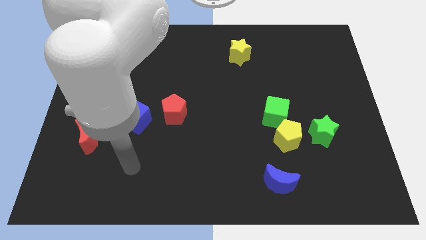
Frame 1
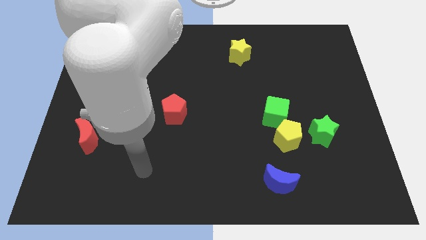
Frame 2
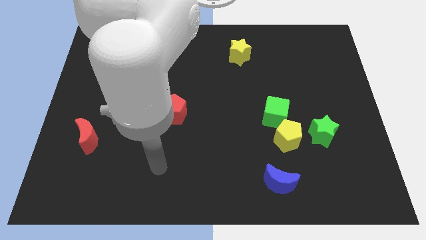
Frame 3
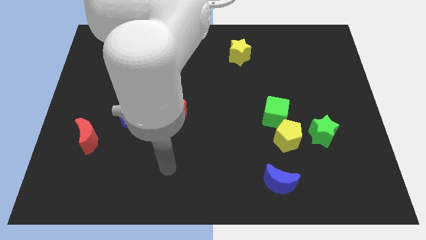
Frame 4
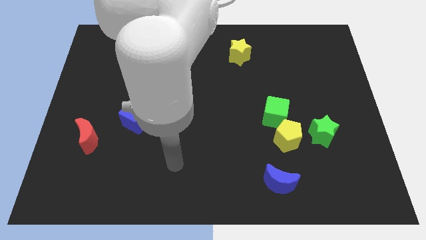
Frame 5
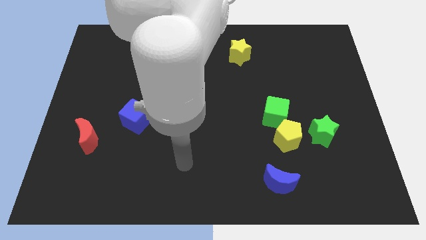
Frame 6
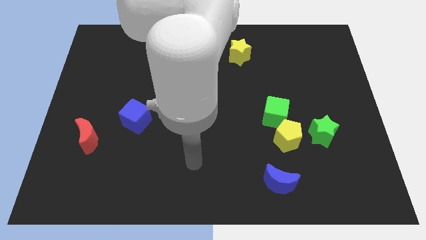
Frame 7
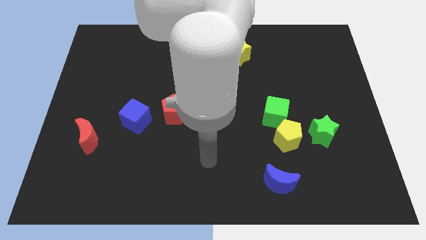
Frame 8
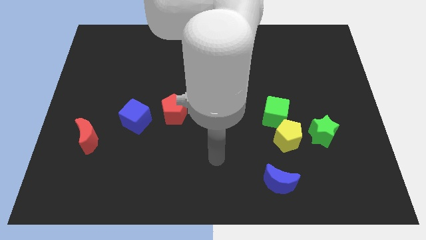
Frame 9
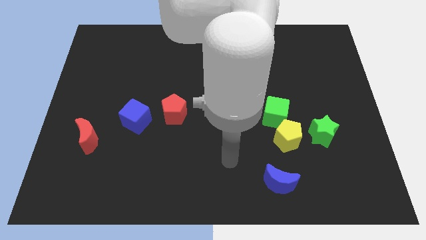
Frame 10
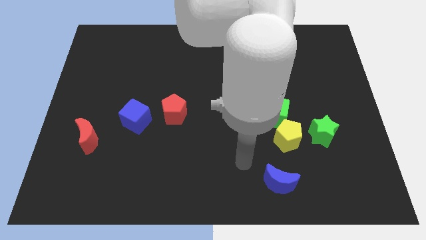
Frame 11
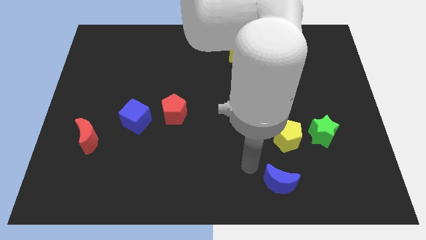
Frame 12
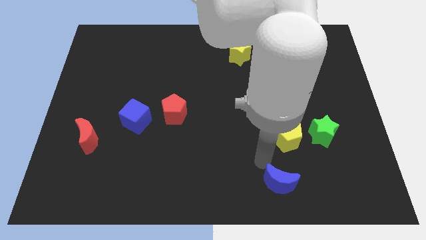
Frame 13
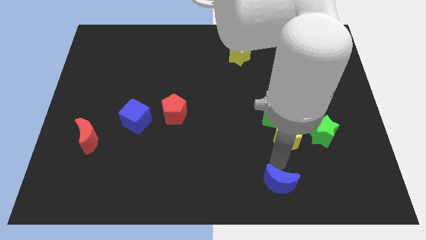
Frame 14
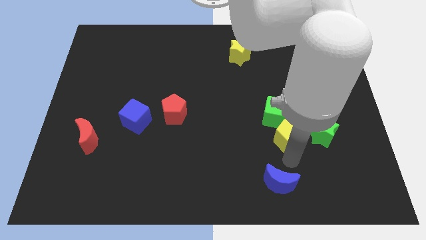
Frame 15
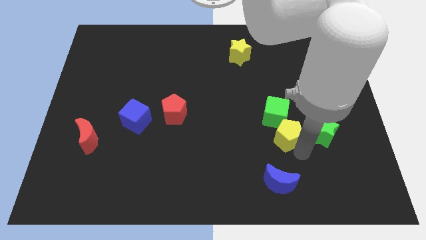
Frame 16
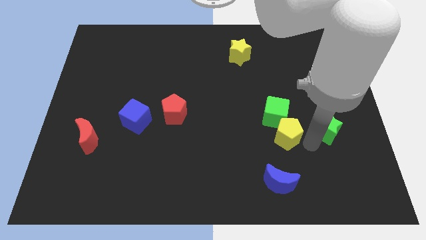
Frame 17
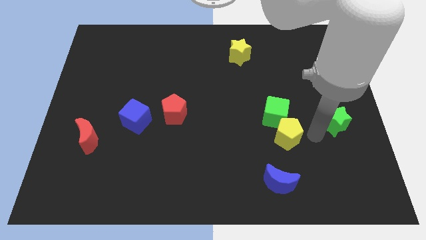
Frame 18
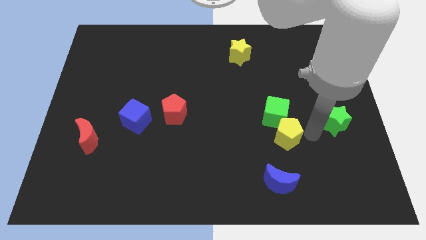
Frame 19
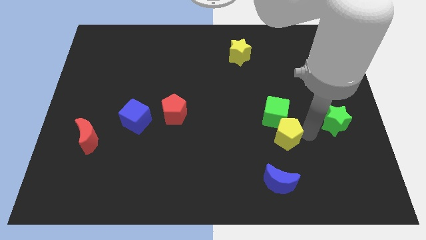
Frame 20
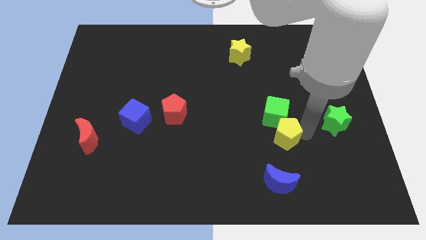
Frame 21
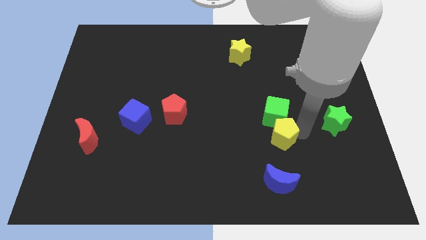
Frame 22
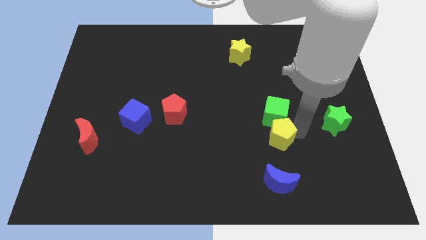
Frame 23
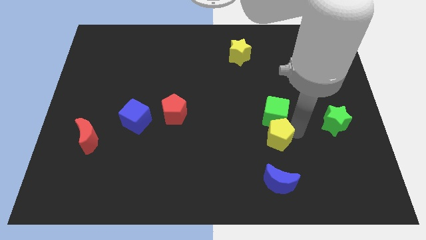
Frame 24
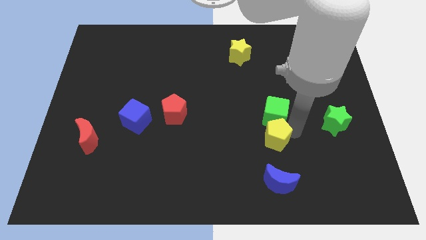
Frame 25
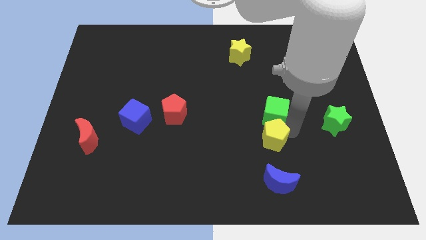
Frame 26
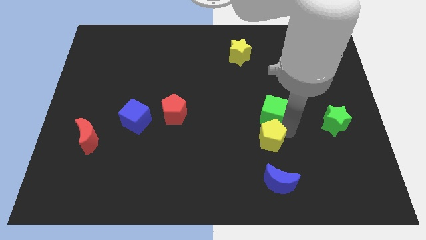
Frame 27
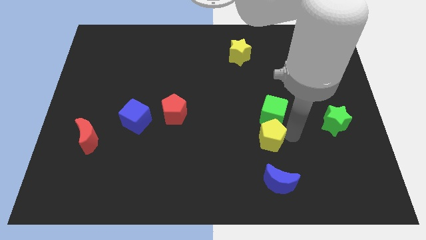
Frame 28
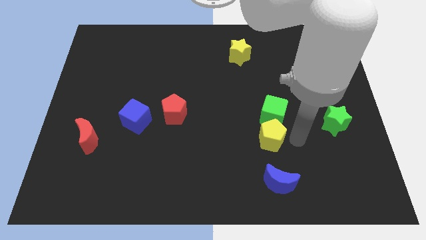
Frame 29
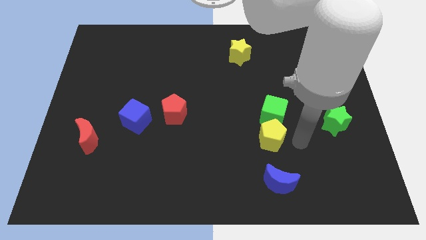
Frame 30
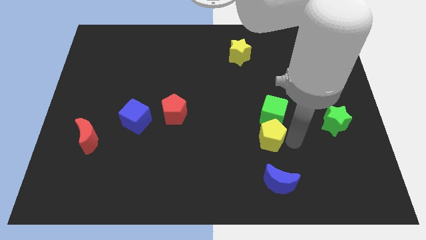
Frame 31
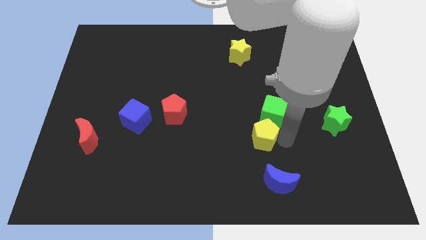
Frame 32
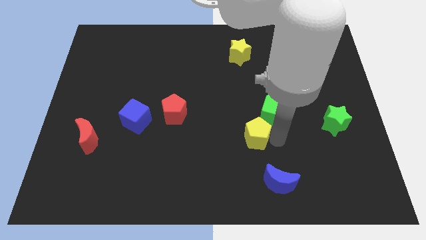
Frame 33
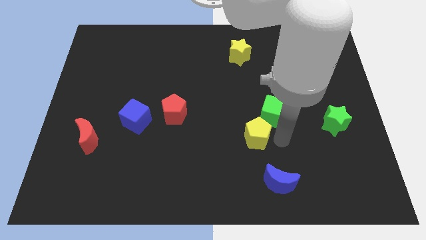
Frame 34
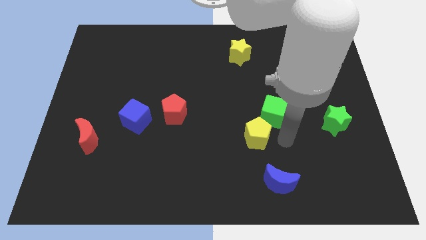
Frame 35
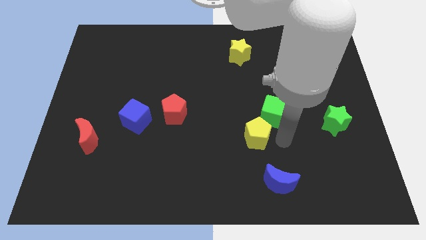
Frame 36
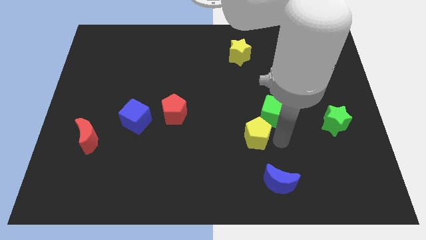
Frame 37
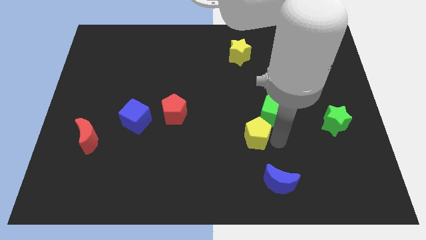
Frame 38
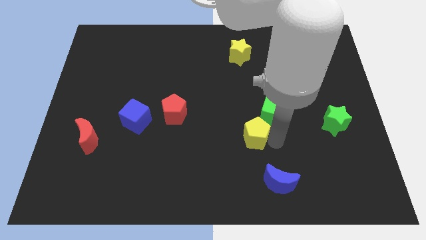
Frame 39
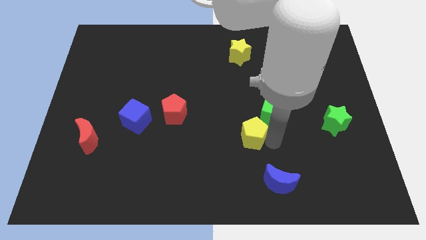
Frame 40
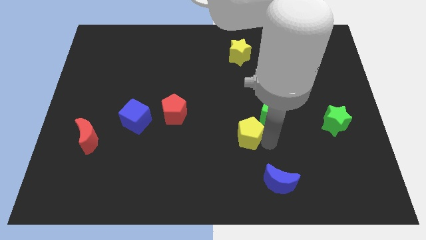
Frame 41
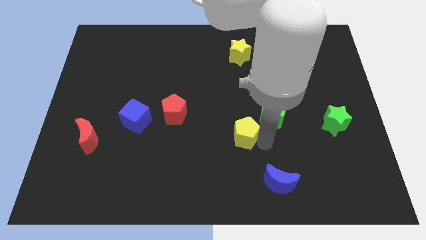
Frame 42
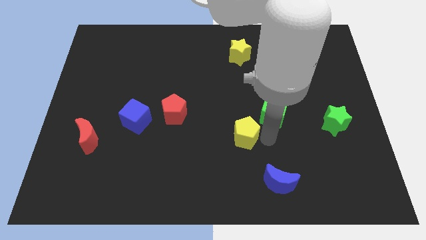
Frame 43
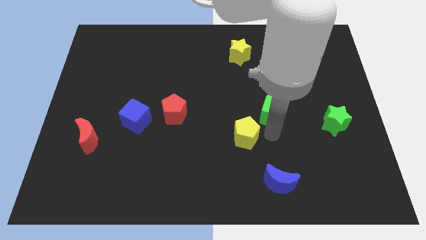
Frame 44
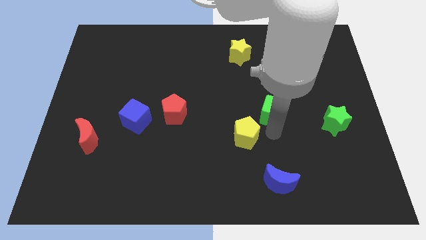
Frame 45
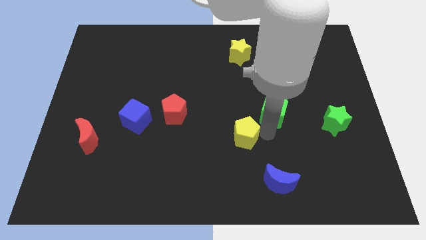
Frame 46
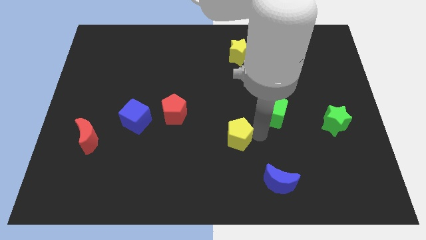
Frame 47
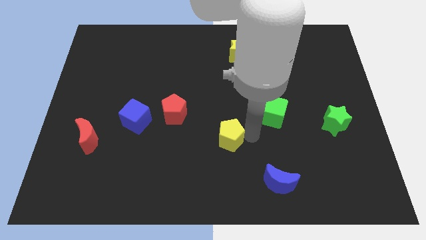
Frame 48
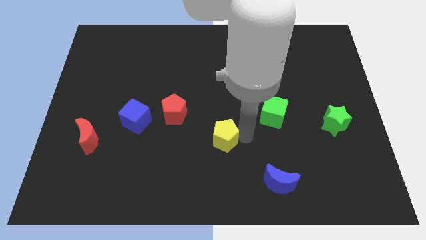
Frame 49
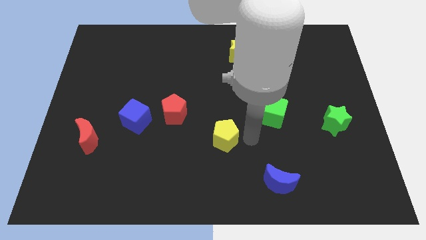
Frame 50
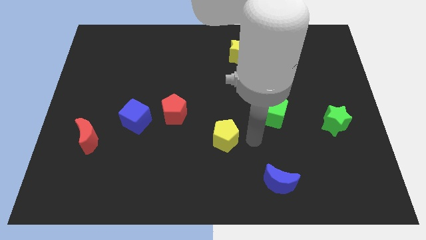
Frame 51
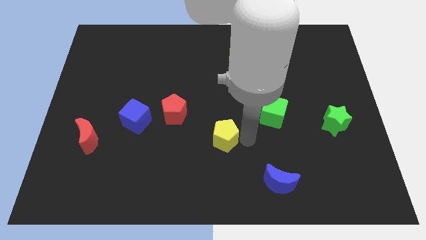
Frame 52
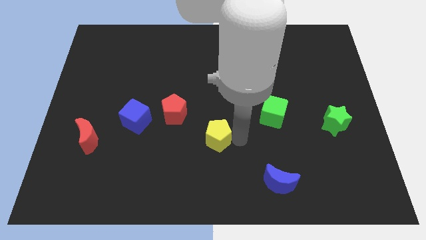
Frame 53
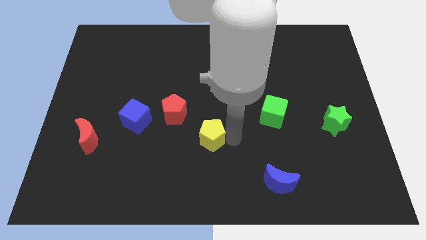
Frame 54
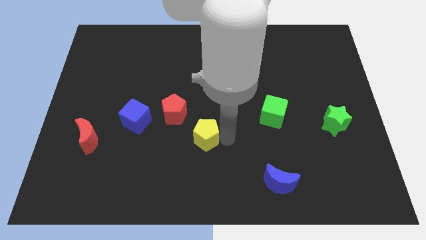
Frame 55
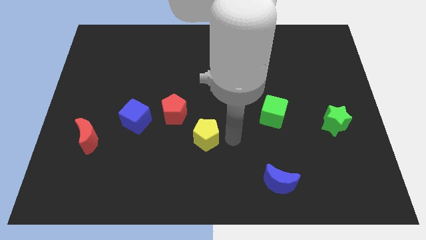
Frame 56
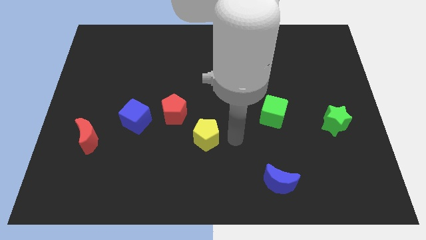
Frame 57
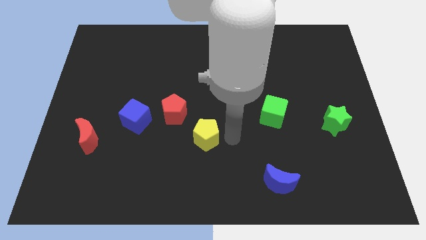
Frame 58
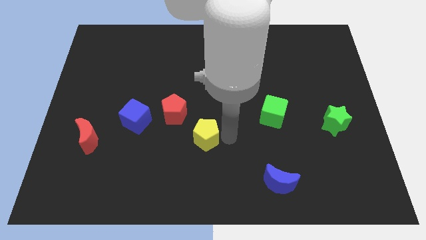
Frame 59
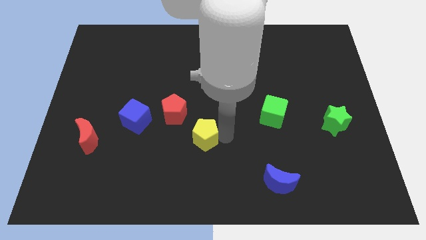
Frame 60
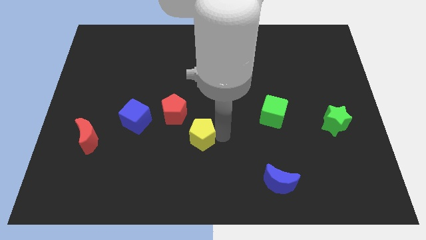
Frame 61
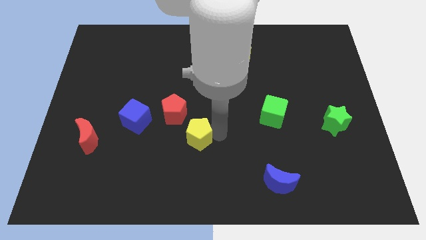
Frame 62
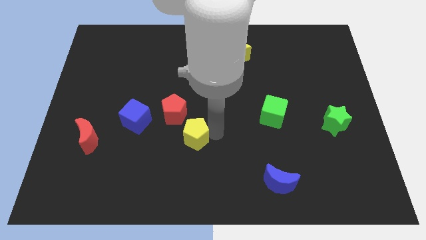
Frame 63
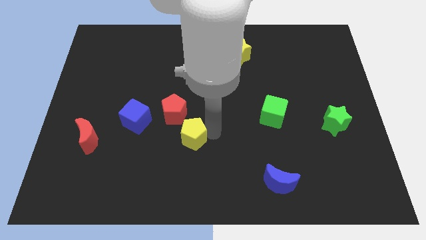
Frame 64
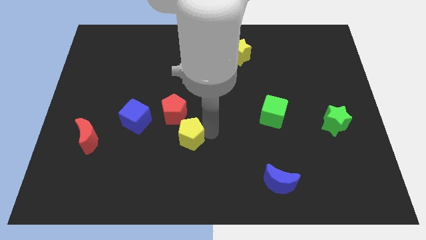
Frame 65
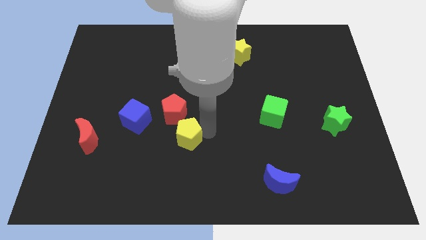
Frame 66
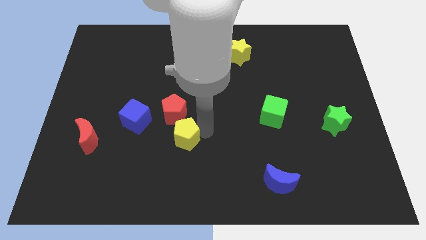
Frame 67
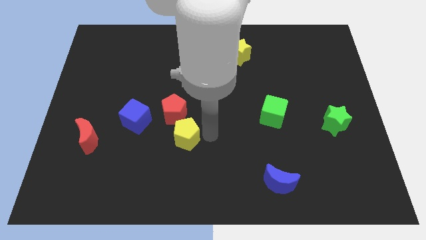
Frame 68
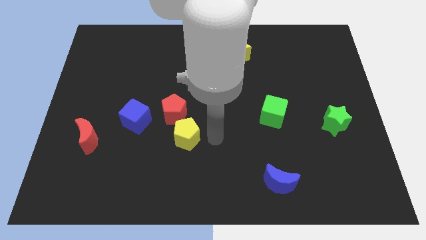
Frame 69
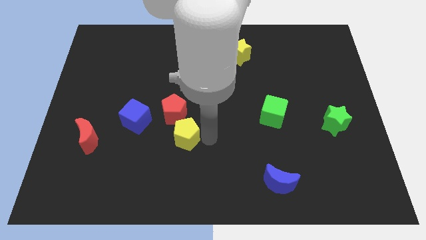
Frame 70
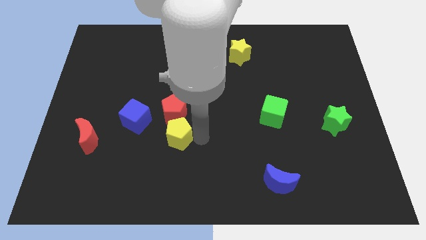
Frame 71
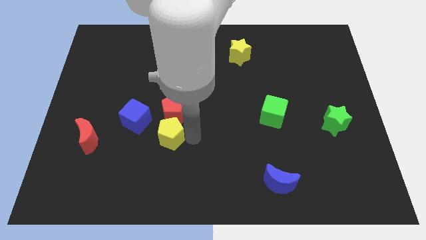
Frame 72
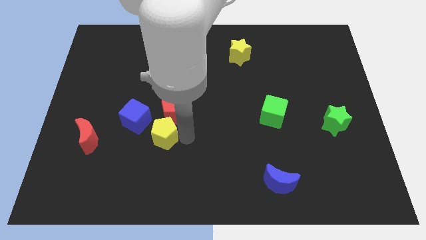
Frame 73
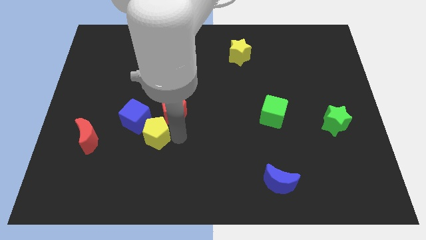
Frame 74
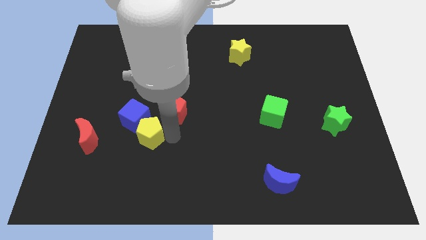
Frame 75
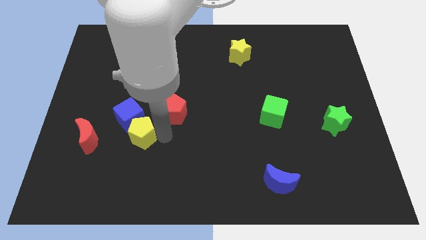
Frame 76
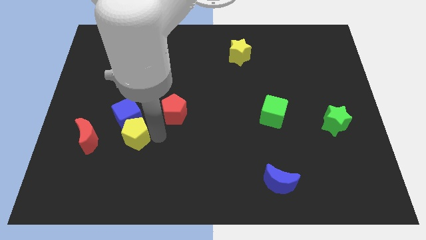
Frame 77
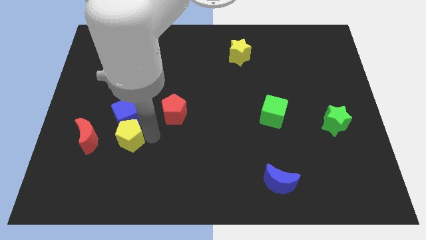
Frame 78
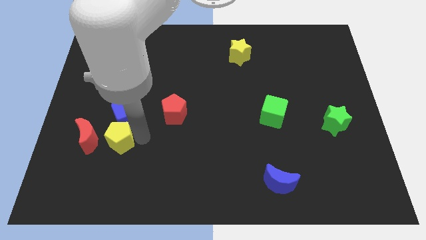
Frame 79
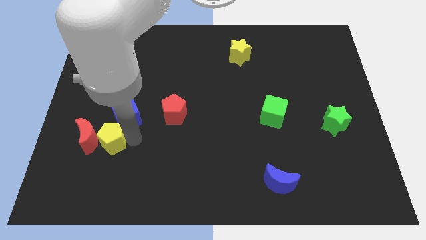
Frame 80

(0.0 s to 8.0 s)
slide the yellow pentagon towards the red moon
